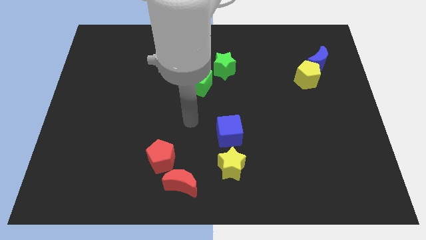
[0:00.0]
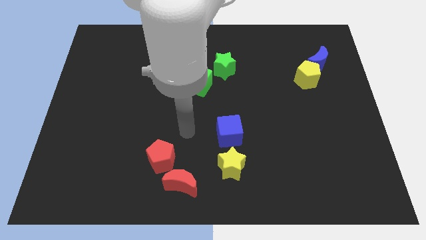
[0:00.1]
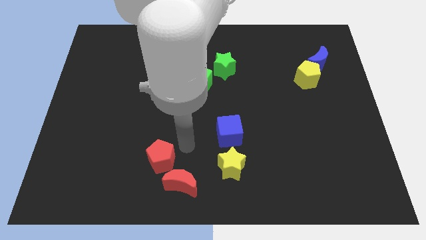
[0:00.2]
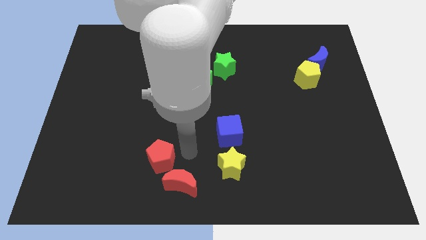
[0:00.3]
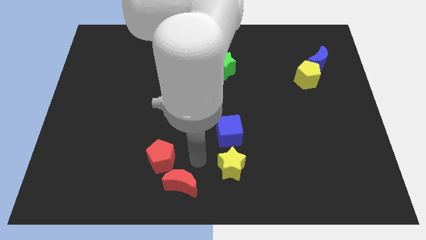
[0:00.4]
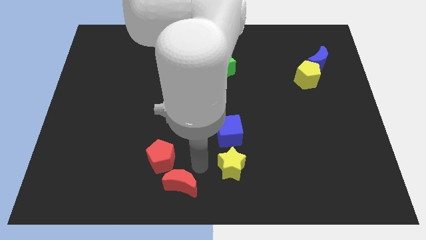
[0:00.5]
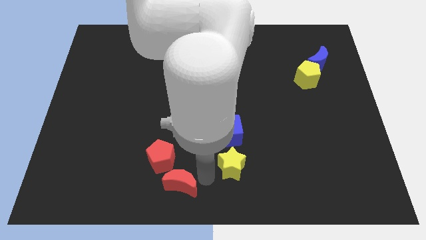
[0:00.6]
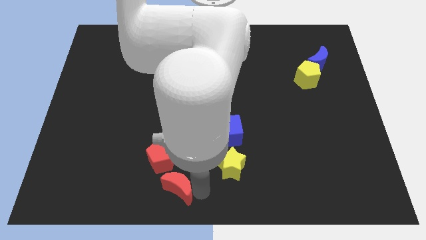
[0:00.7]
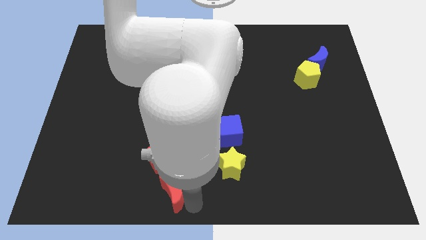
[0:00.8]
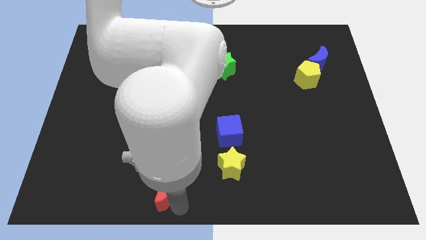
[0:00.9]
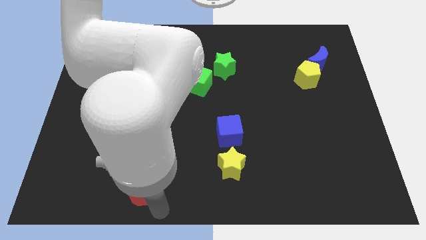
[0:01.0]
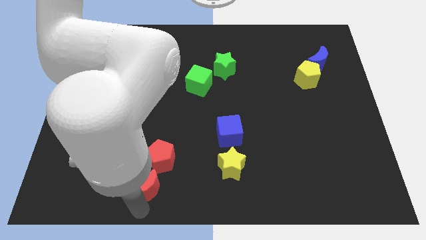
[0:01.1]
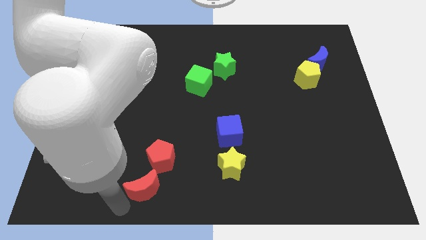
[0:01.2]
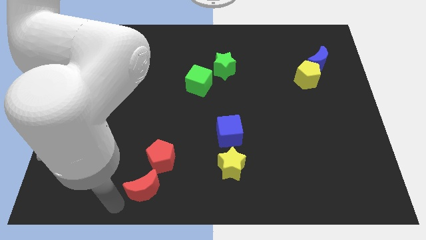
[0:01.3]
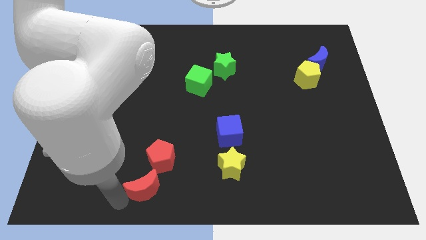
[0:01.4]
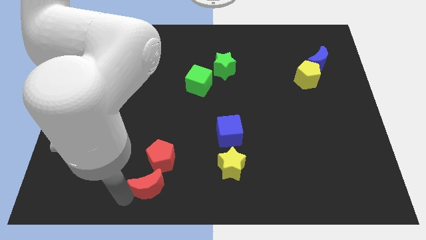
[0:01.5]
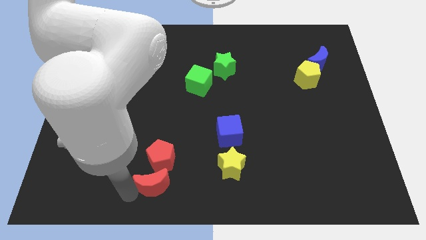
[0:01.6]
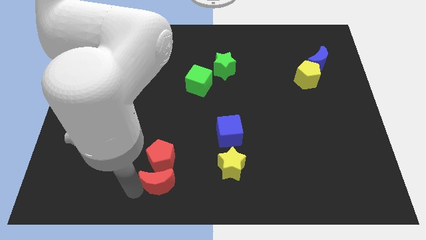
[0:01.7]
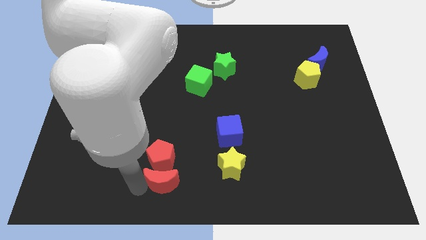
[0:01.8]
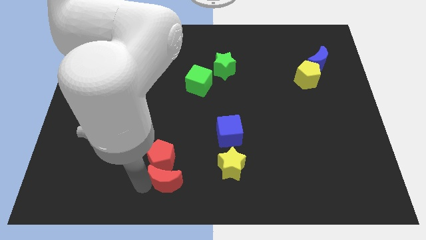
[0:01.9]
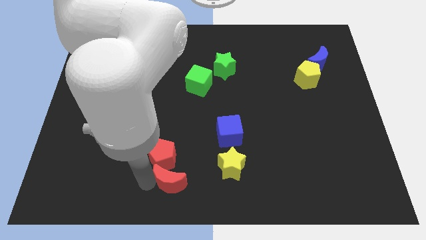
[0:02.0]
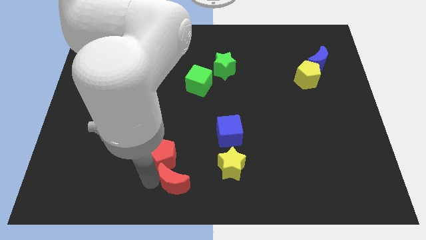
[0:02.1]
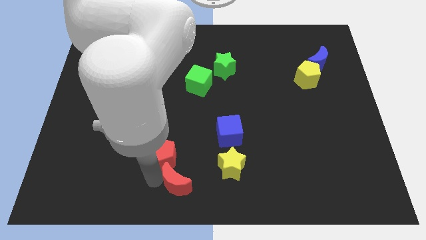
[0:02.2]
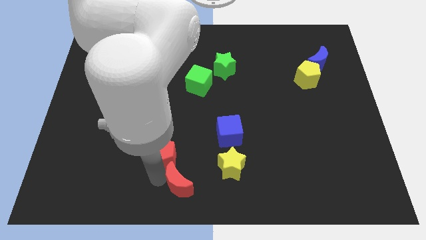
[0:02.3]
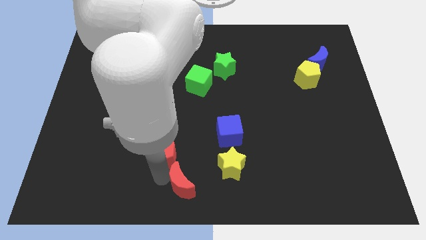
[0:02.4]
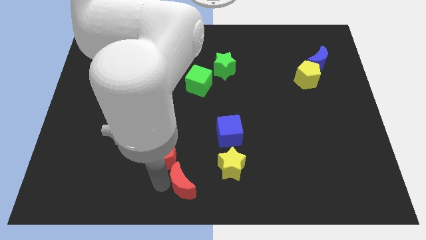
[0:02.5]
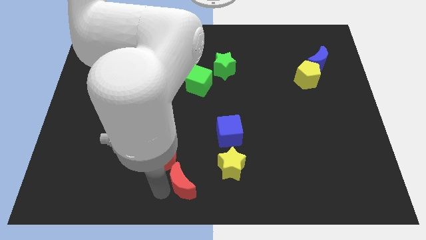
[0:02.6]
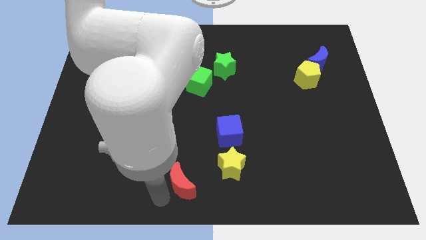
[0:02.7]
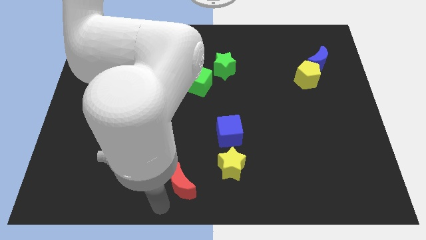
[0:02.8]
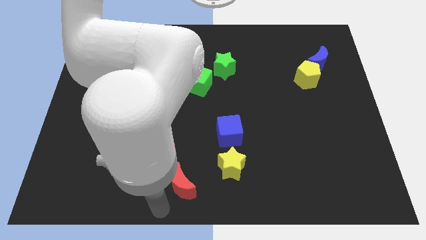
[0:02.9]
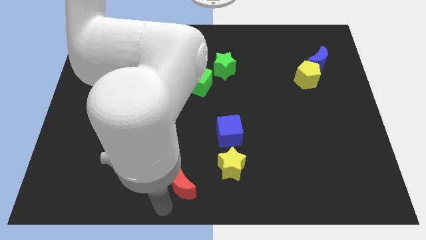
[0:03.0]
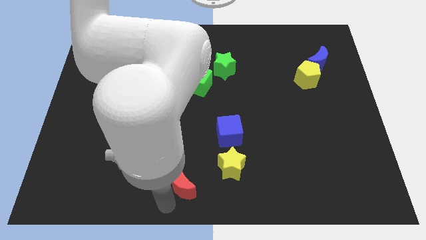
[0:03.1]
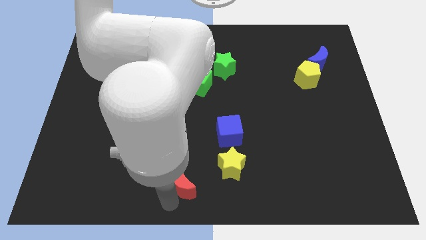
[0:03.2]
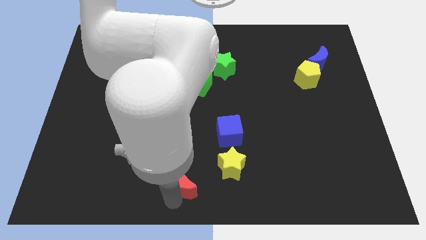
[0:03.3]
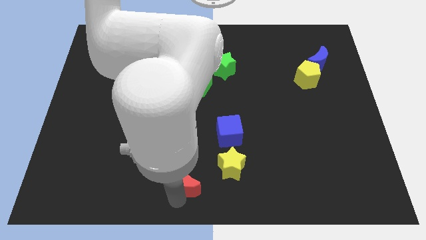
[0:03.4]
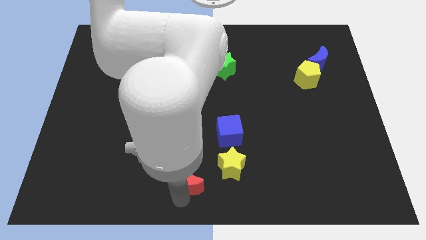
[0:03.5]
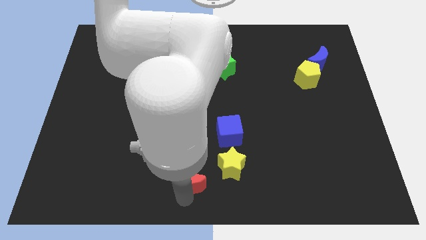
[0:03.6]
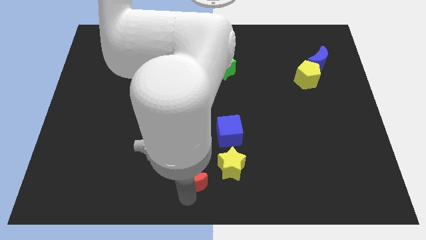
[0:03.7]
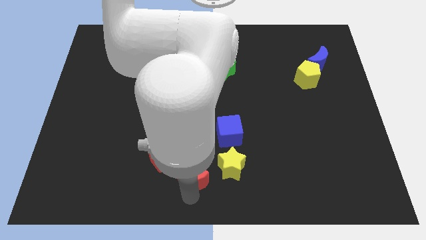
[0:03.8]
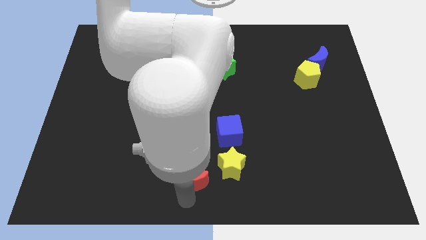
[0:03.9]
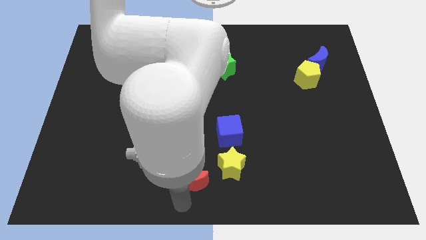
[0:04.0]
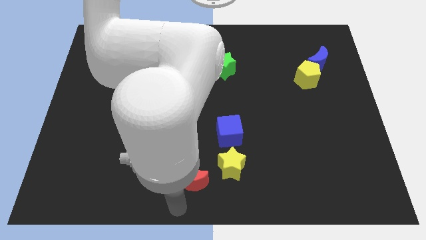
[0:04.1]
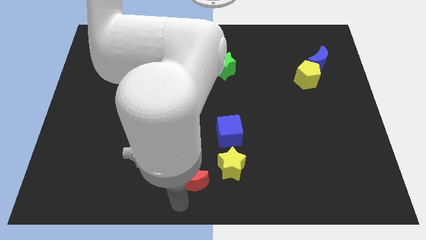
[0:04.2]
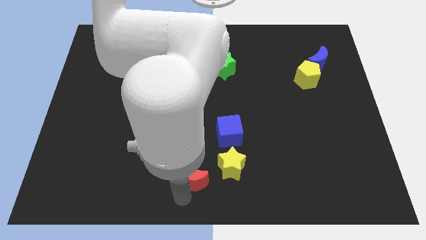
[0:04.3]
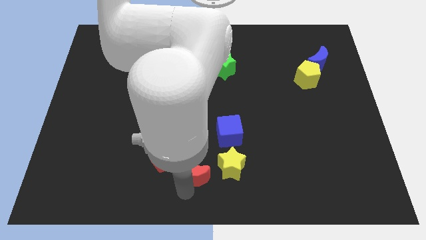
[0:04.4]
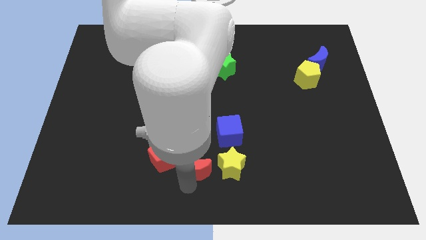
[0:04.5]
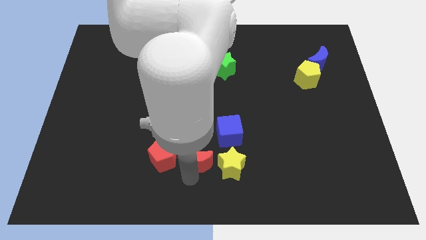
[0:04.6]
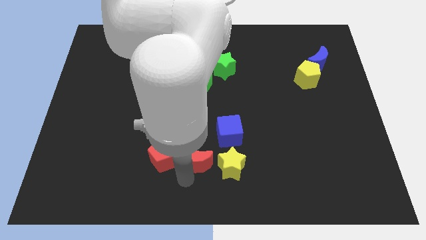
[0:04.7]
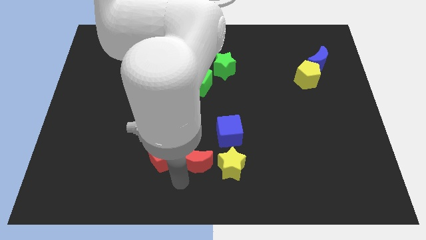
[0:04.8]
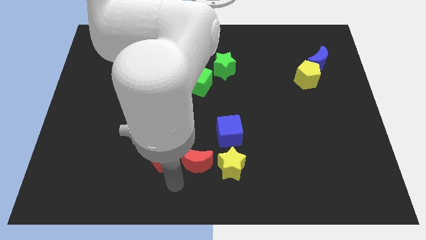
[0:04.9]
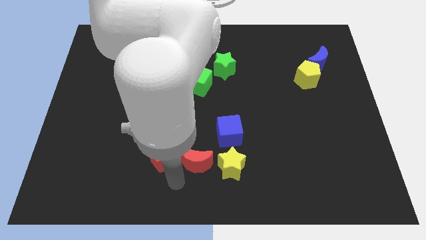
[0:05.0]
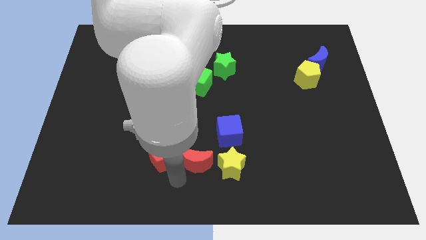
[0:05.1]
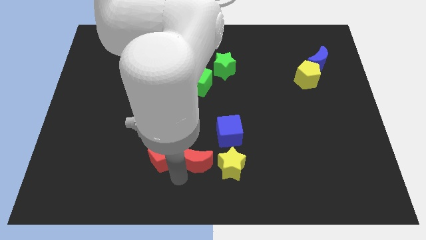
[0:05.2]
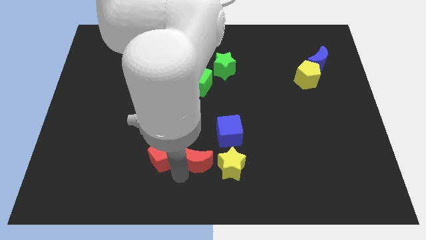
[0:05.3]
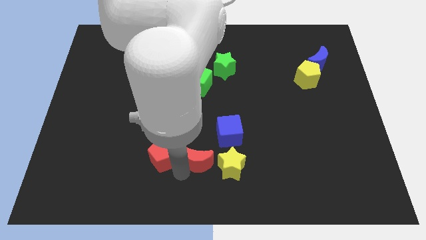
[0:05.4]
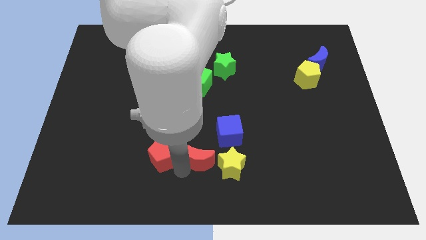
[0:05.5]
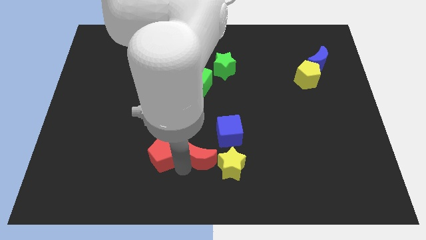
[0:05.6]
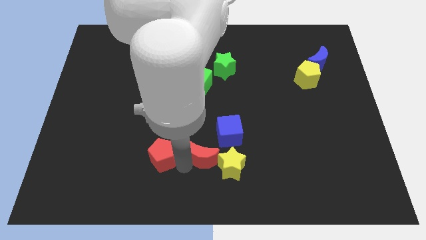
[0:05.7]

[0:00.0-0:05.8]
slightly move the red moon diagonally upwards and right

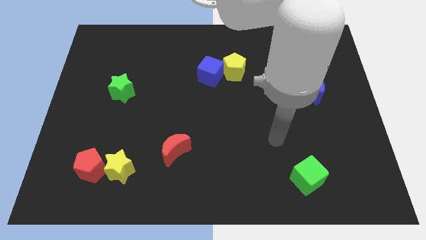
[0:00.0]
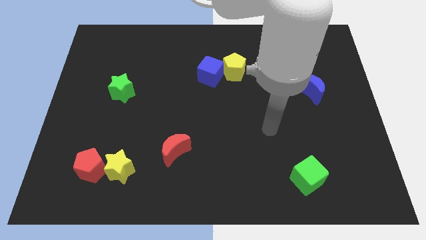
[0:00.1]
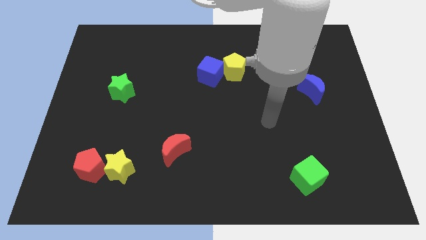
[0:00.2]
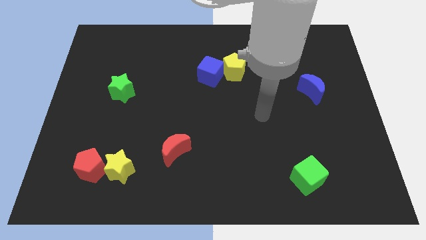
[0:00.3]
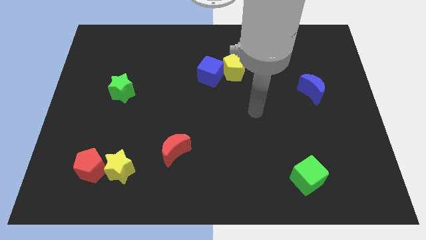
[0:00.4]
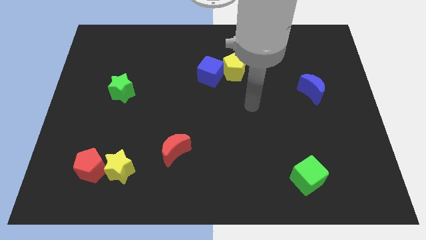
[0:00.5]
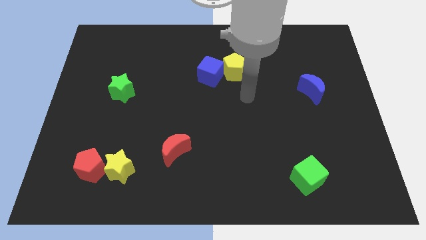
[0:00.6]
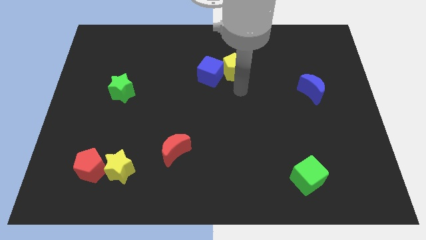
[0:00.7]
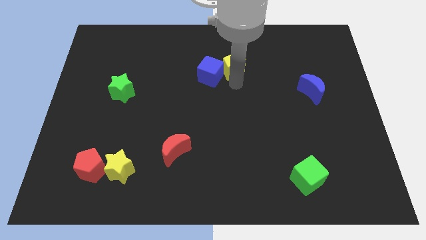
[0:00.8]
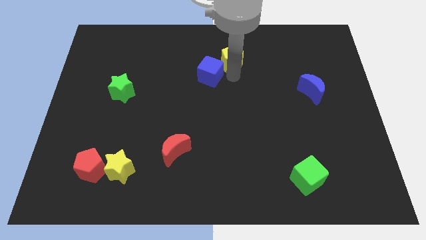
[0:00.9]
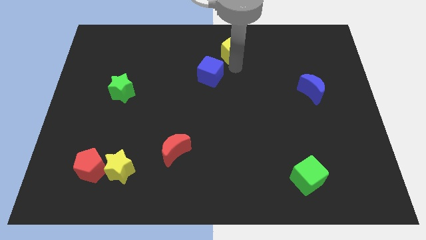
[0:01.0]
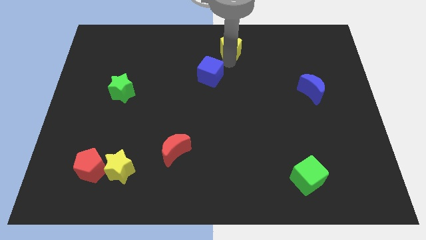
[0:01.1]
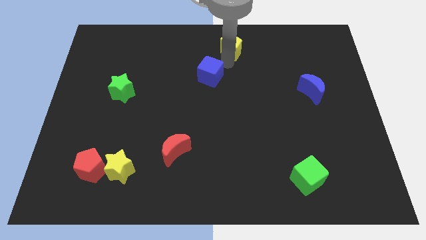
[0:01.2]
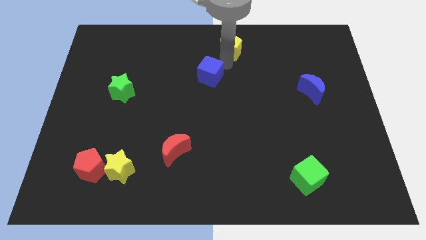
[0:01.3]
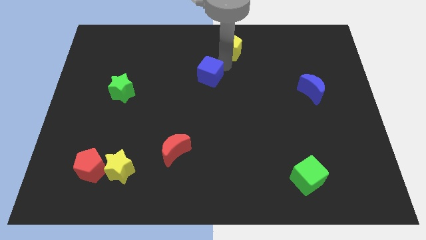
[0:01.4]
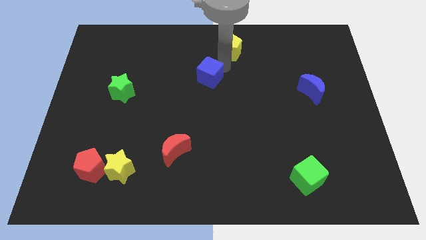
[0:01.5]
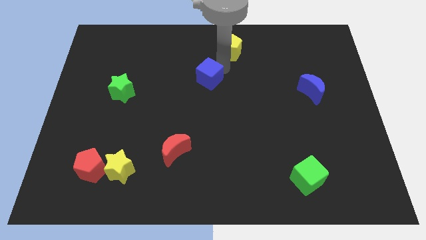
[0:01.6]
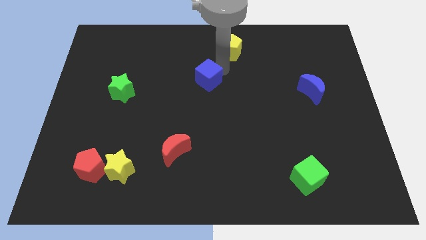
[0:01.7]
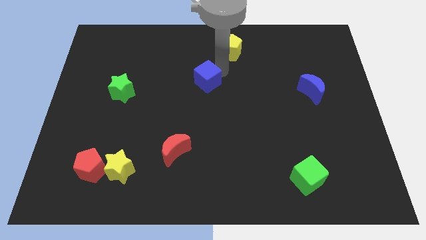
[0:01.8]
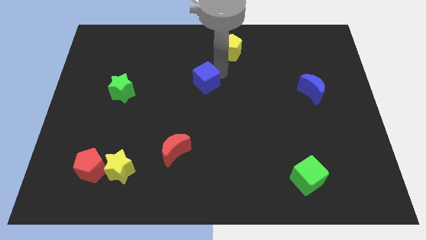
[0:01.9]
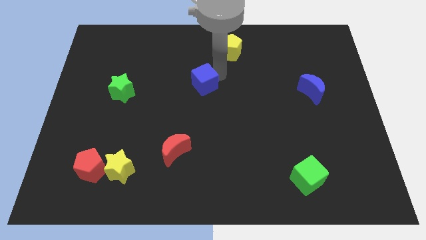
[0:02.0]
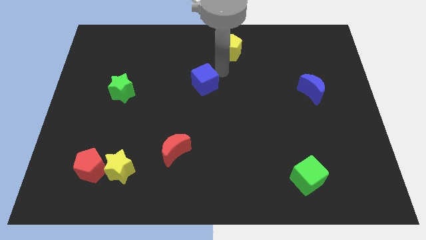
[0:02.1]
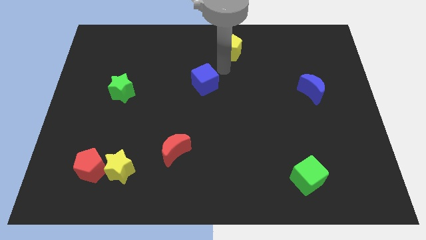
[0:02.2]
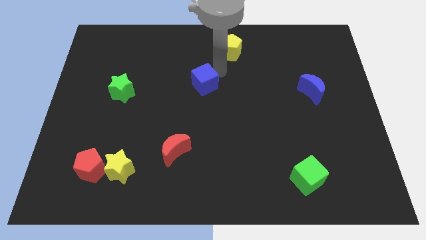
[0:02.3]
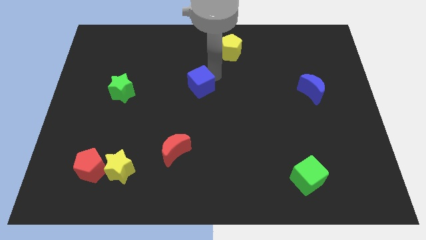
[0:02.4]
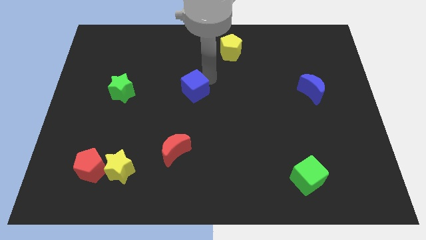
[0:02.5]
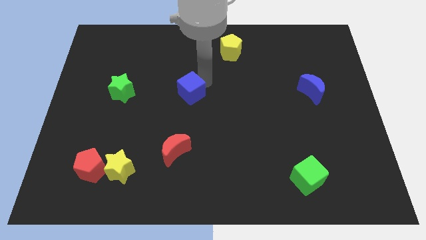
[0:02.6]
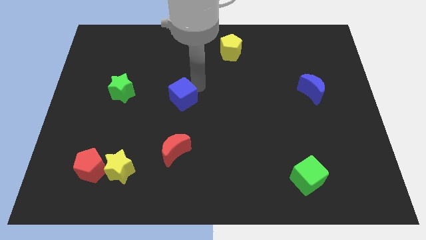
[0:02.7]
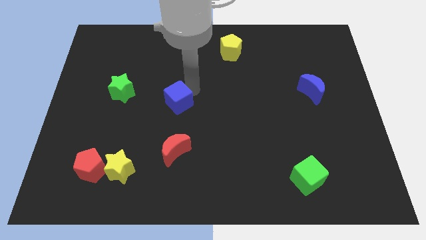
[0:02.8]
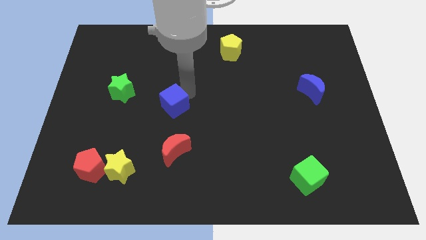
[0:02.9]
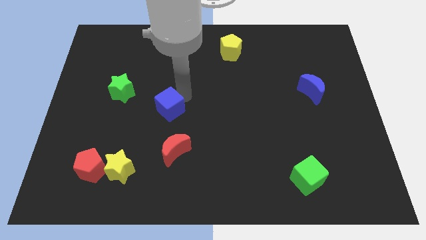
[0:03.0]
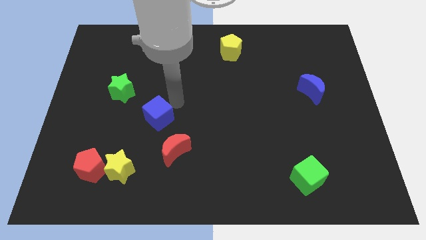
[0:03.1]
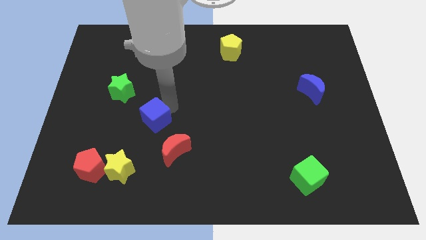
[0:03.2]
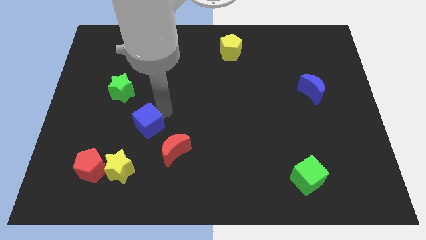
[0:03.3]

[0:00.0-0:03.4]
slide the blue cube diagonally downwards and to the left
